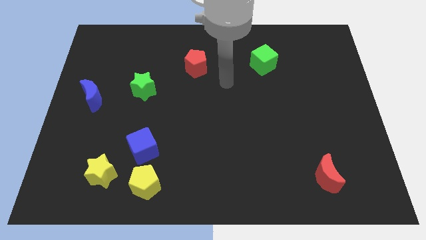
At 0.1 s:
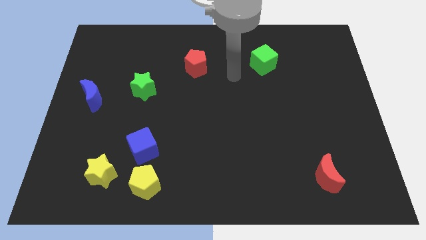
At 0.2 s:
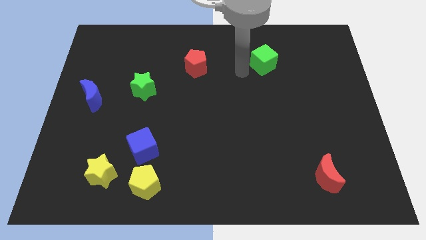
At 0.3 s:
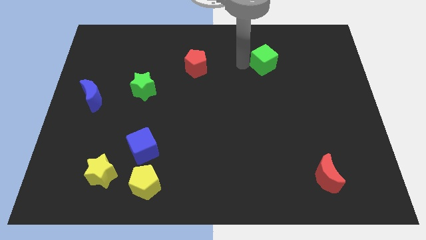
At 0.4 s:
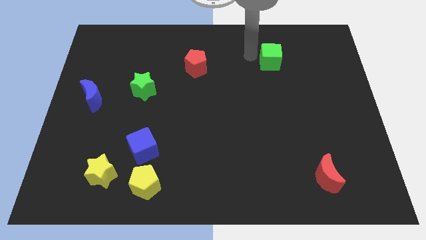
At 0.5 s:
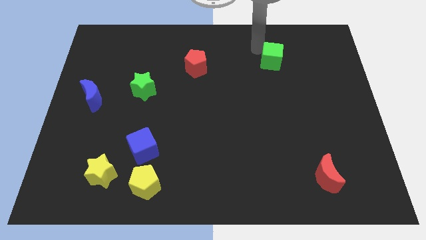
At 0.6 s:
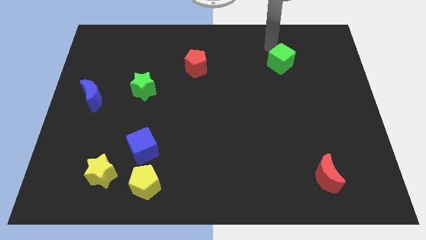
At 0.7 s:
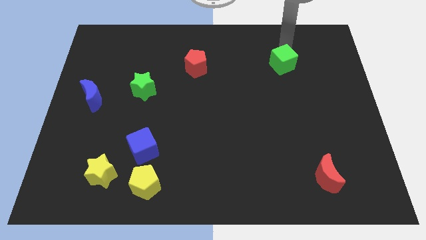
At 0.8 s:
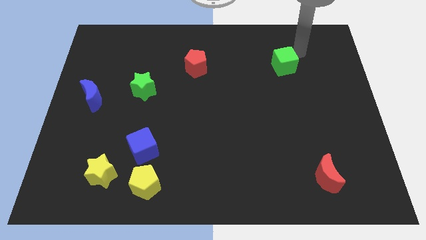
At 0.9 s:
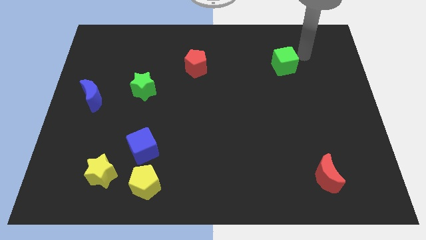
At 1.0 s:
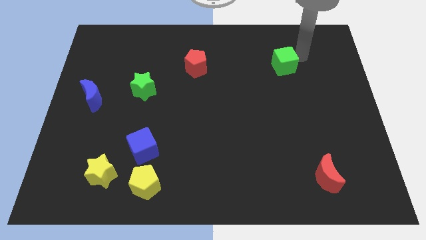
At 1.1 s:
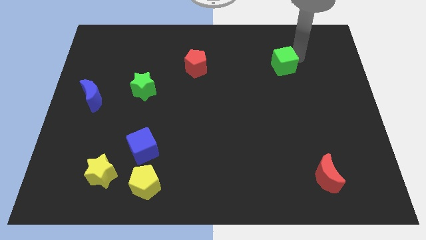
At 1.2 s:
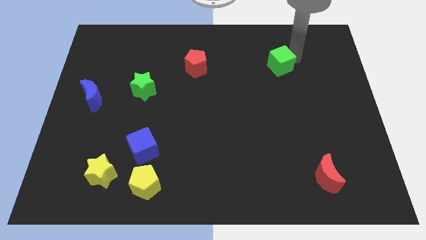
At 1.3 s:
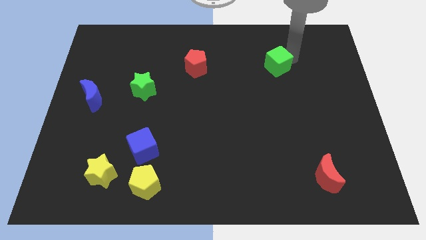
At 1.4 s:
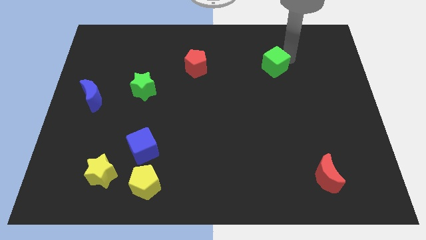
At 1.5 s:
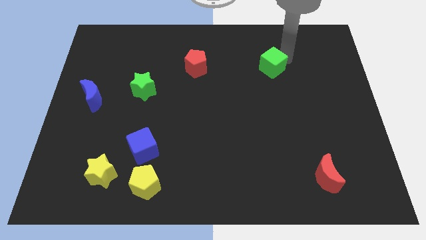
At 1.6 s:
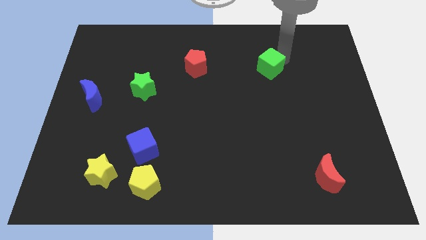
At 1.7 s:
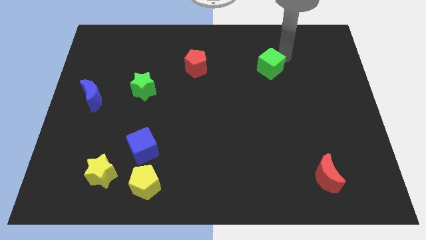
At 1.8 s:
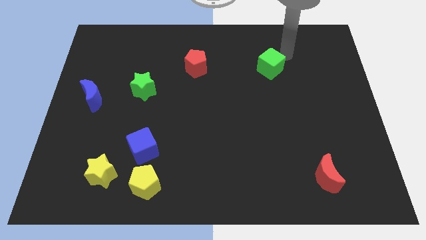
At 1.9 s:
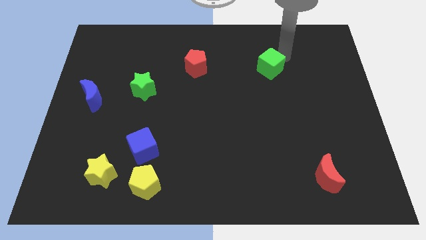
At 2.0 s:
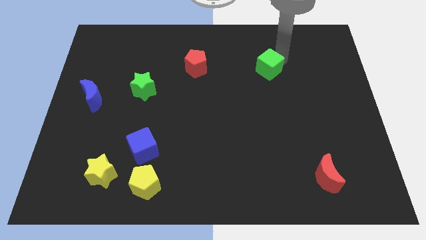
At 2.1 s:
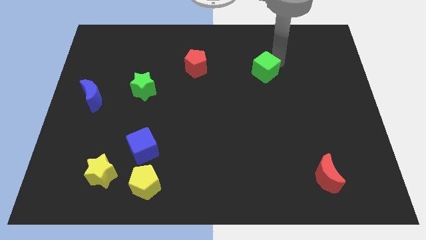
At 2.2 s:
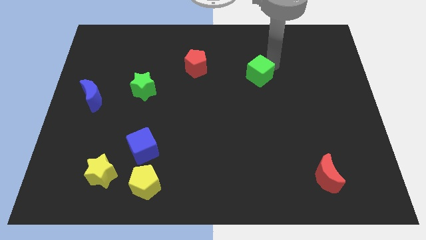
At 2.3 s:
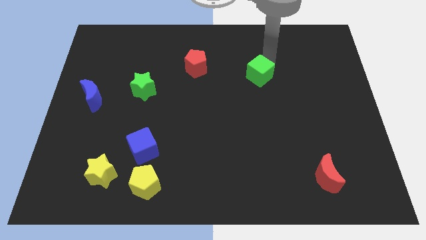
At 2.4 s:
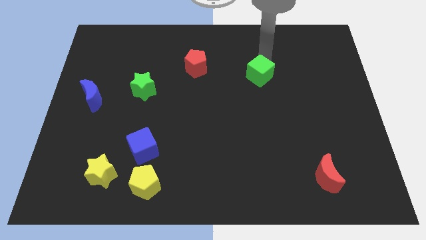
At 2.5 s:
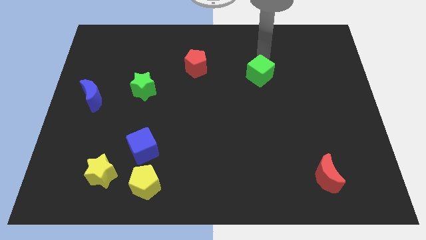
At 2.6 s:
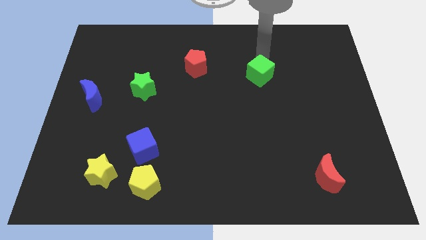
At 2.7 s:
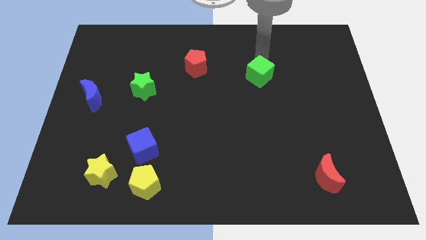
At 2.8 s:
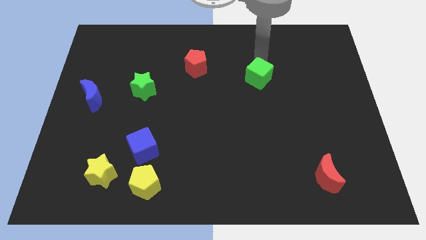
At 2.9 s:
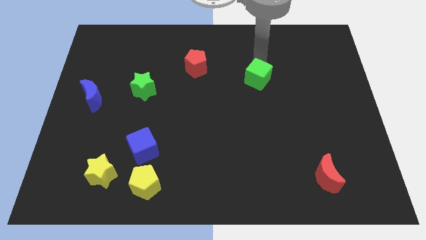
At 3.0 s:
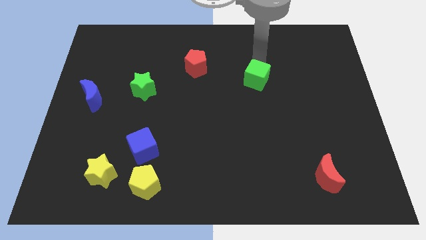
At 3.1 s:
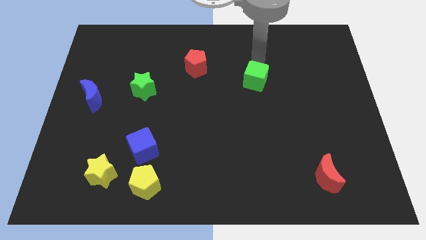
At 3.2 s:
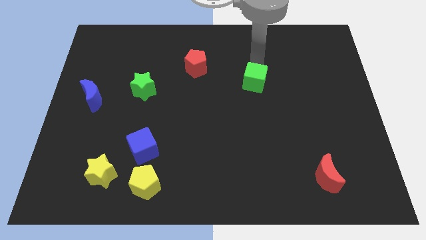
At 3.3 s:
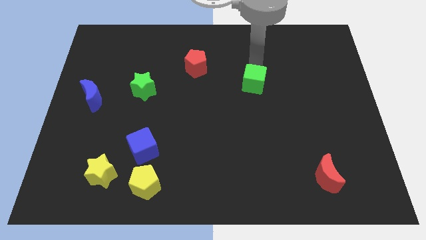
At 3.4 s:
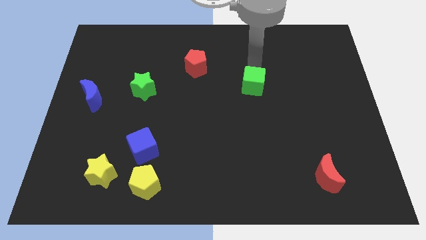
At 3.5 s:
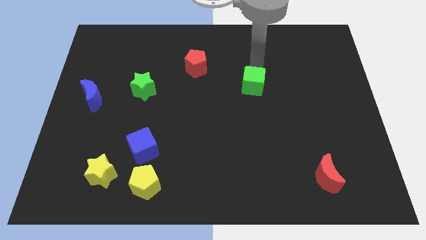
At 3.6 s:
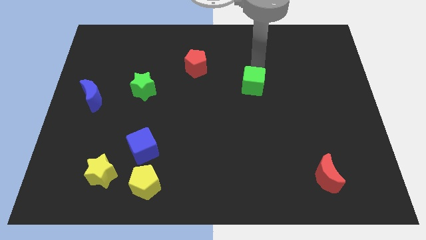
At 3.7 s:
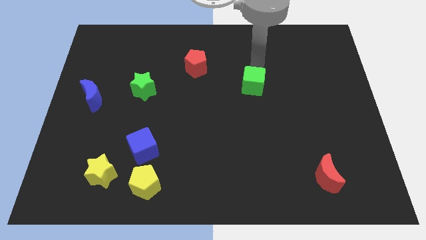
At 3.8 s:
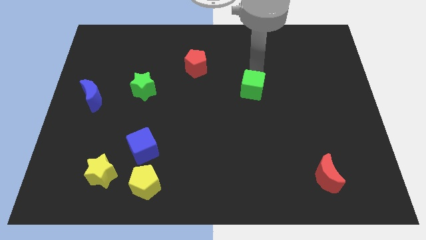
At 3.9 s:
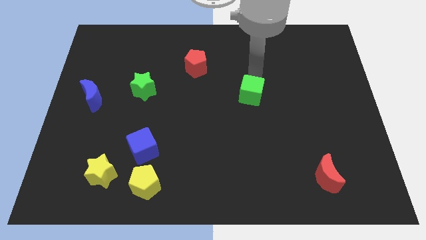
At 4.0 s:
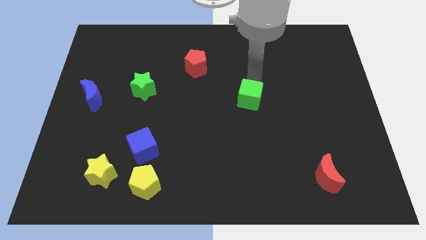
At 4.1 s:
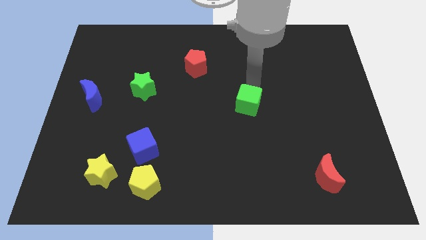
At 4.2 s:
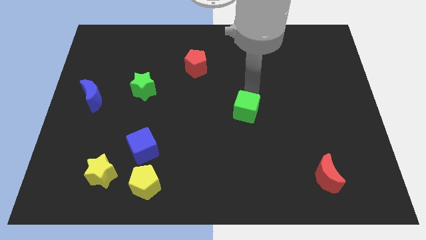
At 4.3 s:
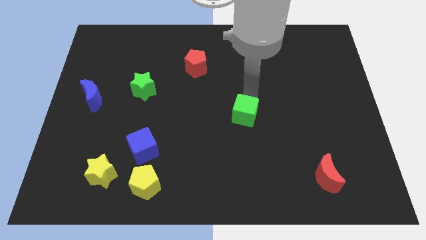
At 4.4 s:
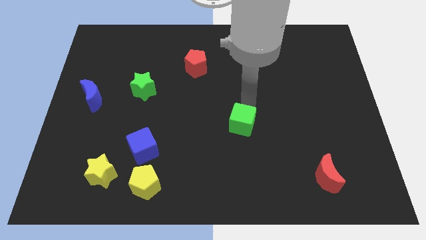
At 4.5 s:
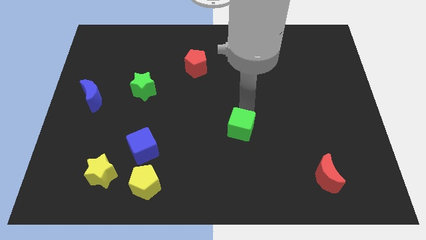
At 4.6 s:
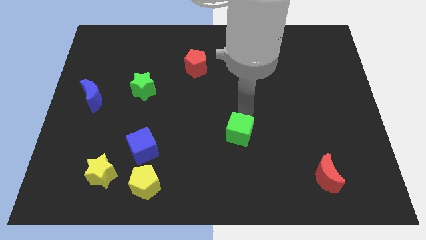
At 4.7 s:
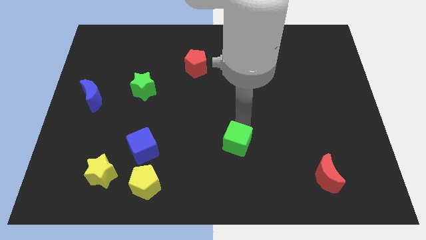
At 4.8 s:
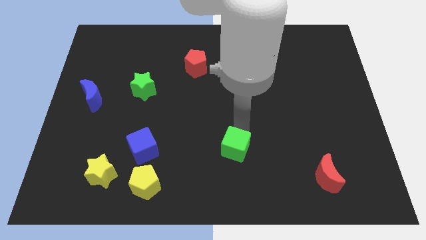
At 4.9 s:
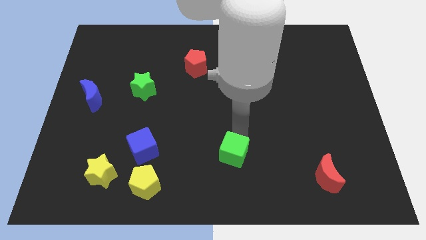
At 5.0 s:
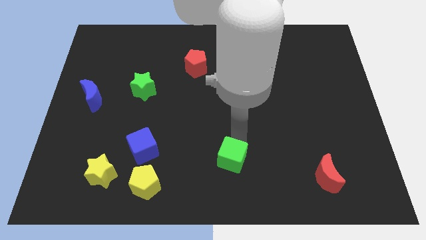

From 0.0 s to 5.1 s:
slide the green cube to the bottom

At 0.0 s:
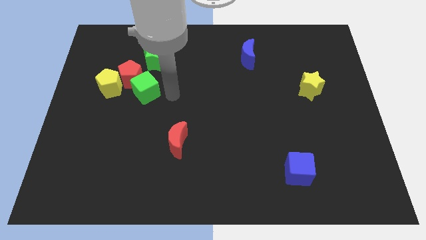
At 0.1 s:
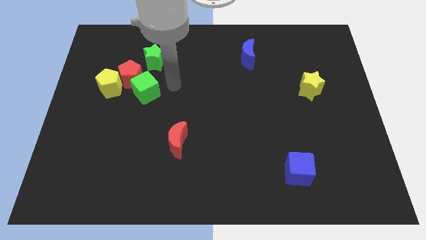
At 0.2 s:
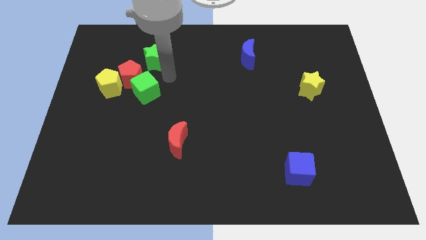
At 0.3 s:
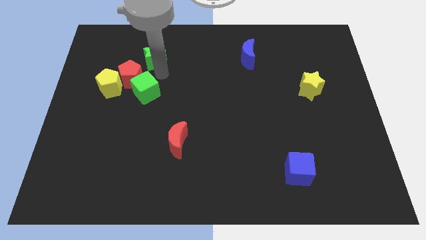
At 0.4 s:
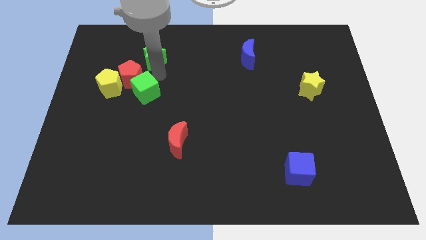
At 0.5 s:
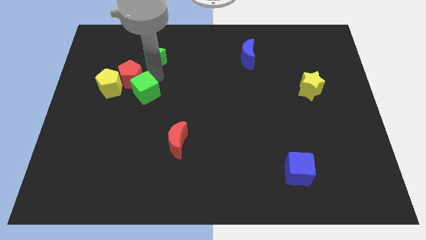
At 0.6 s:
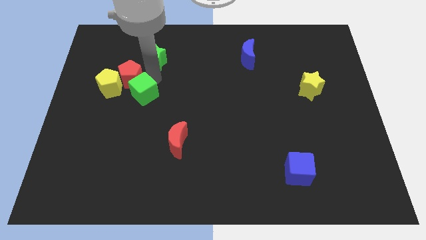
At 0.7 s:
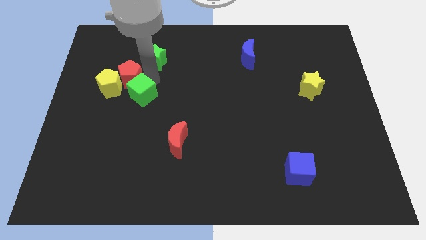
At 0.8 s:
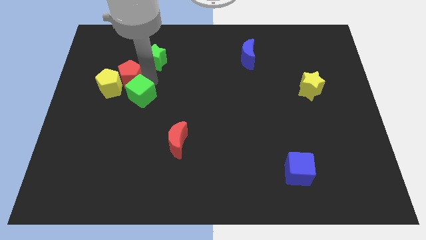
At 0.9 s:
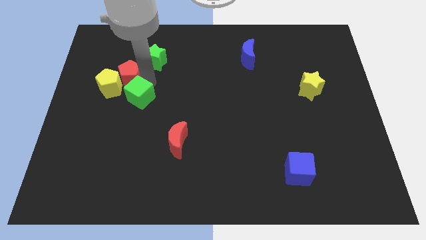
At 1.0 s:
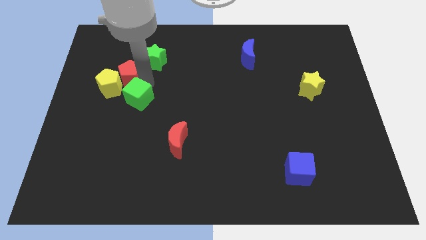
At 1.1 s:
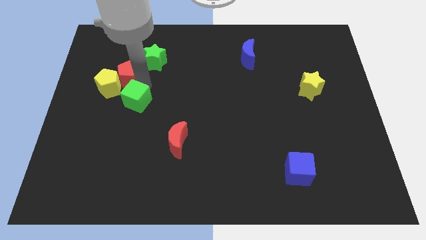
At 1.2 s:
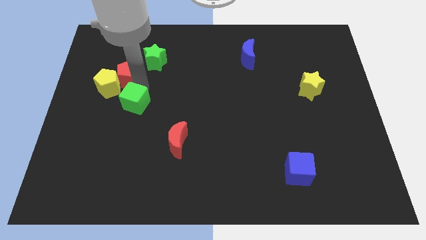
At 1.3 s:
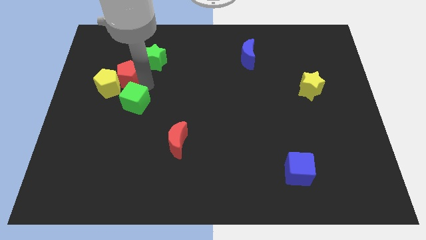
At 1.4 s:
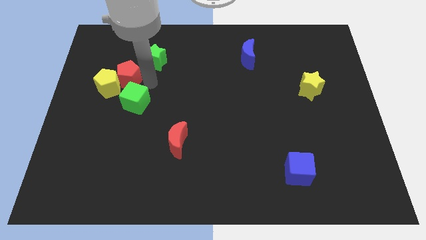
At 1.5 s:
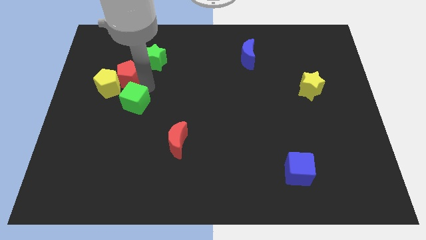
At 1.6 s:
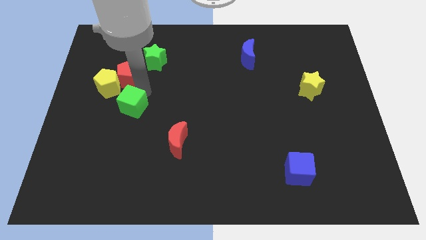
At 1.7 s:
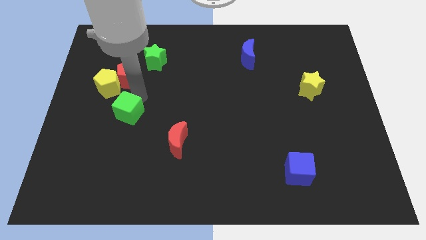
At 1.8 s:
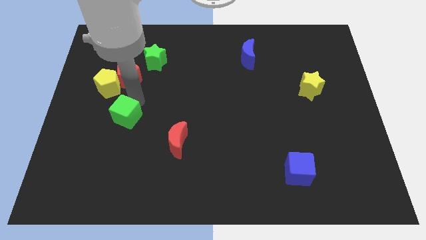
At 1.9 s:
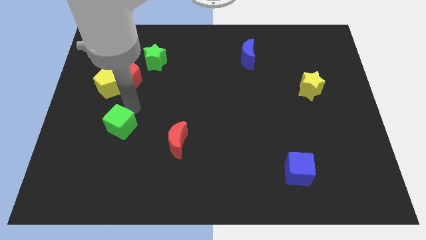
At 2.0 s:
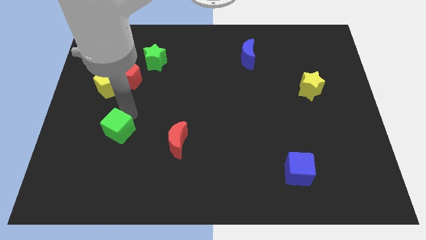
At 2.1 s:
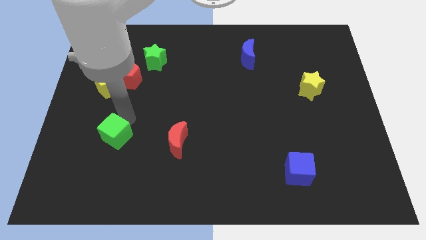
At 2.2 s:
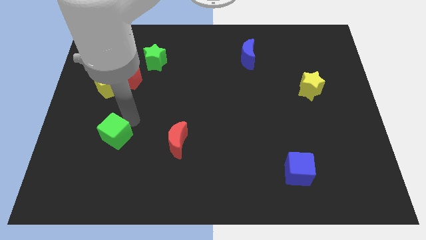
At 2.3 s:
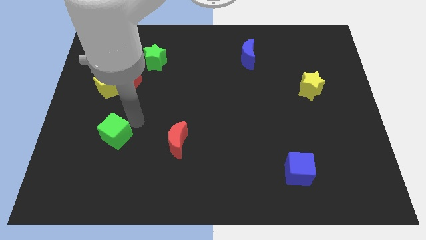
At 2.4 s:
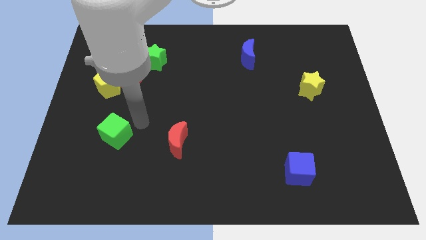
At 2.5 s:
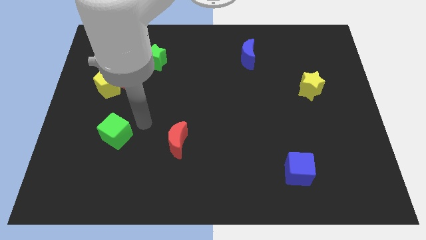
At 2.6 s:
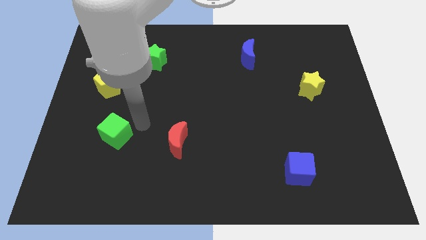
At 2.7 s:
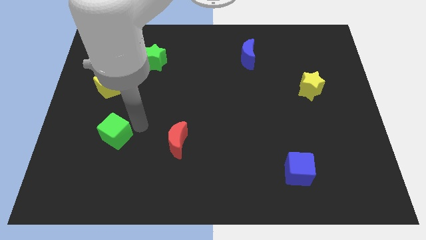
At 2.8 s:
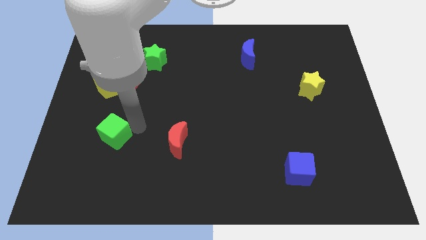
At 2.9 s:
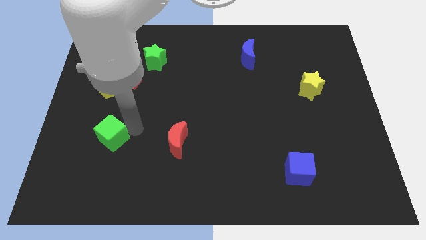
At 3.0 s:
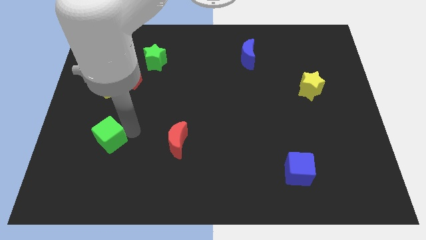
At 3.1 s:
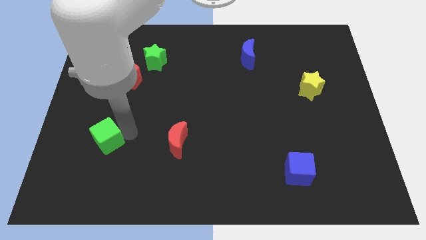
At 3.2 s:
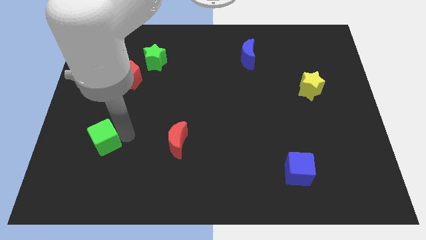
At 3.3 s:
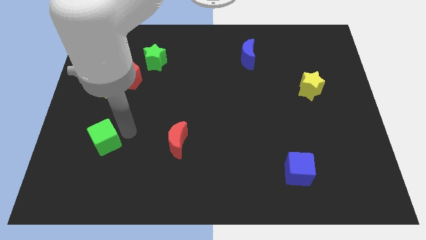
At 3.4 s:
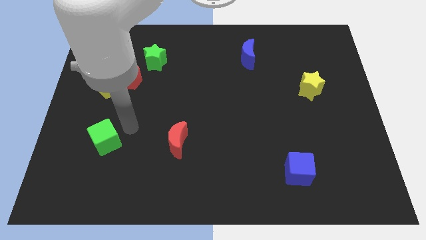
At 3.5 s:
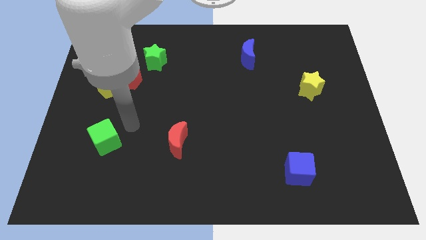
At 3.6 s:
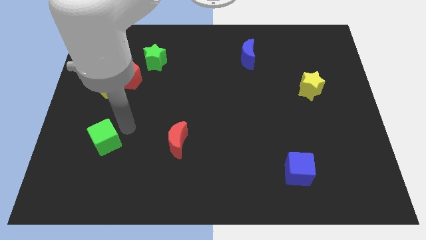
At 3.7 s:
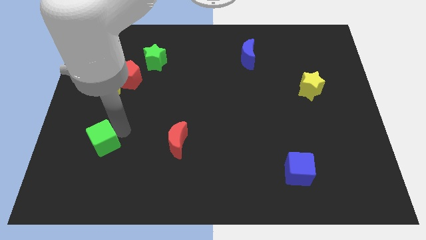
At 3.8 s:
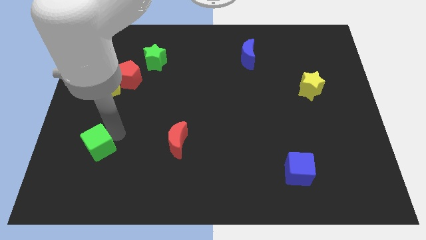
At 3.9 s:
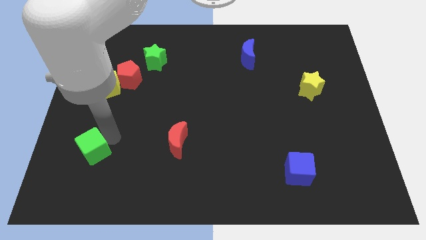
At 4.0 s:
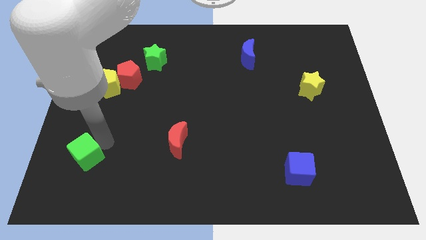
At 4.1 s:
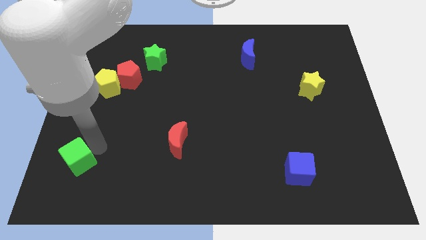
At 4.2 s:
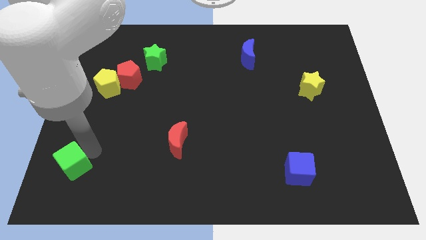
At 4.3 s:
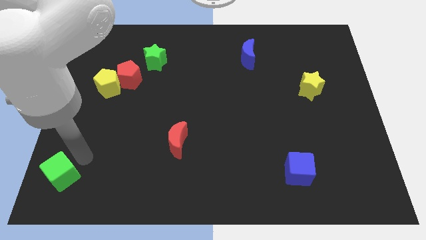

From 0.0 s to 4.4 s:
move the green cube to the bottom left of the board
